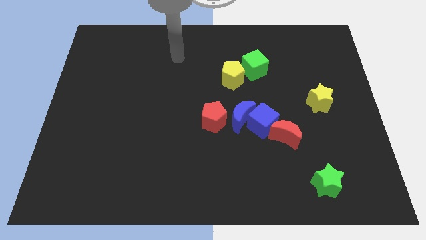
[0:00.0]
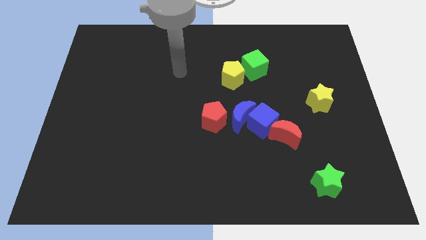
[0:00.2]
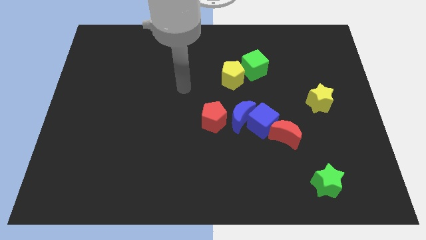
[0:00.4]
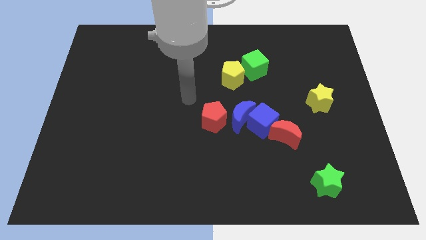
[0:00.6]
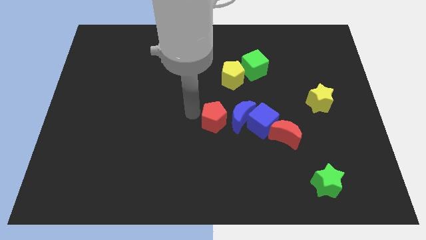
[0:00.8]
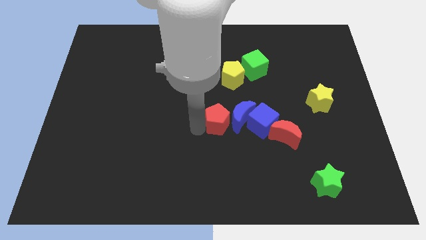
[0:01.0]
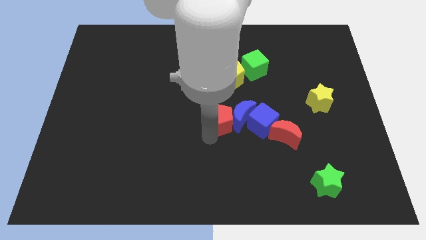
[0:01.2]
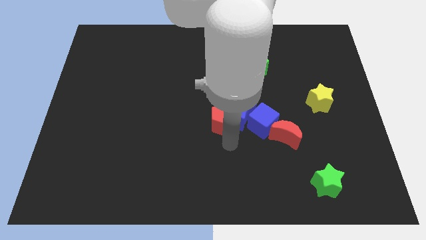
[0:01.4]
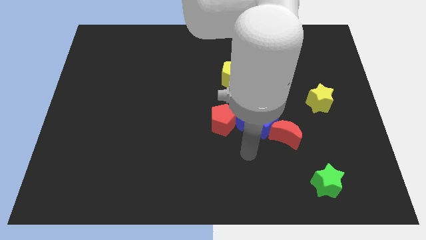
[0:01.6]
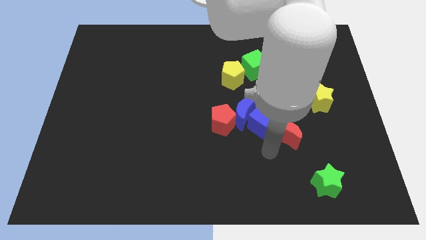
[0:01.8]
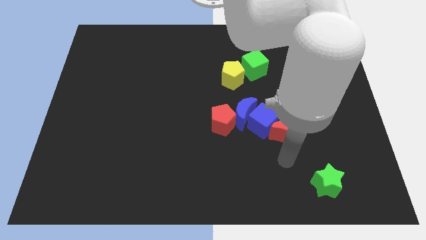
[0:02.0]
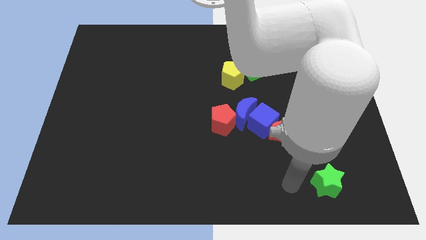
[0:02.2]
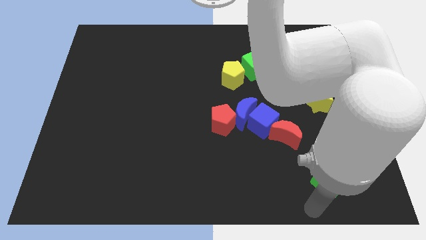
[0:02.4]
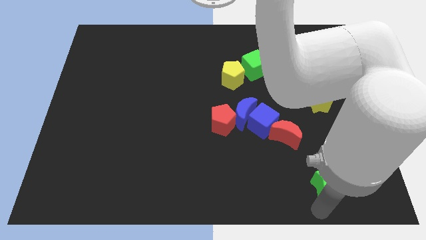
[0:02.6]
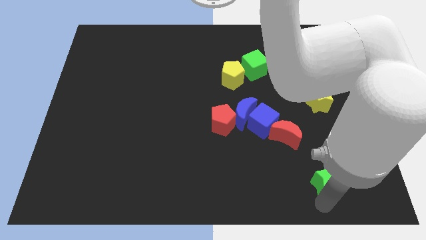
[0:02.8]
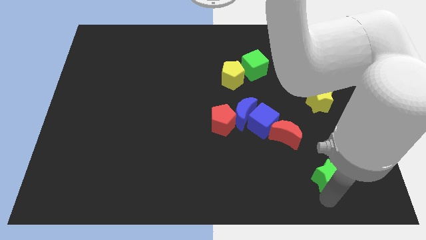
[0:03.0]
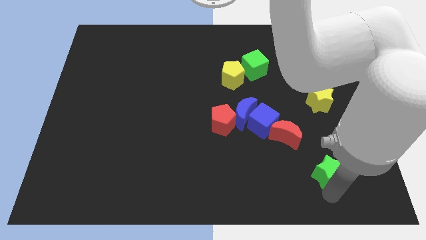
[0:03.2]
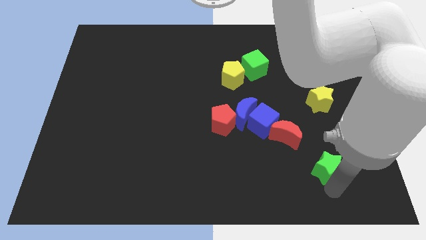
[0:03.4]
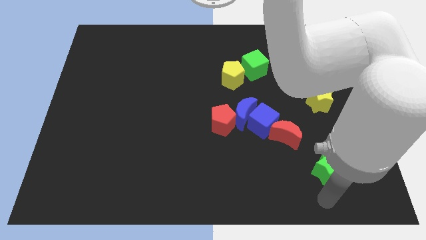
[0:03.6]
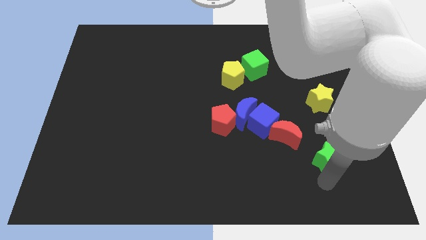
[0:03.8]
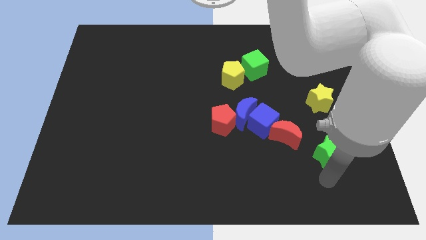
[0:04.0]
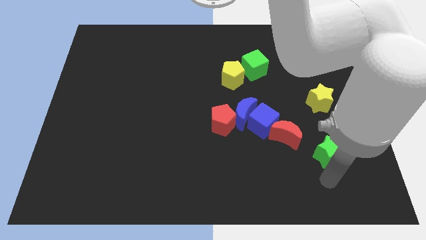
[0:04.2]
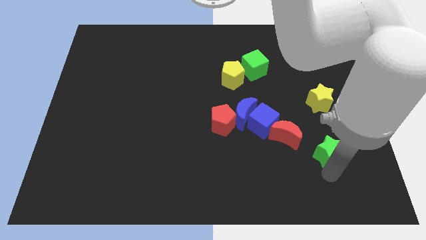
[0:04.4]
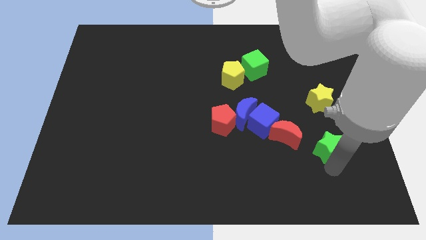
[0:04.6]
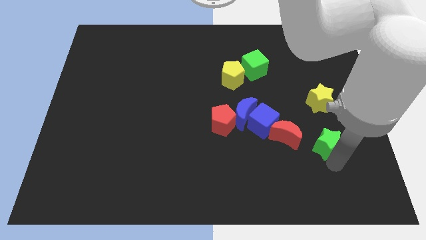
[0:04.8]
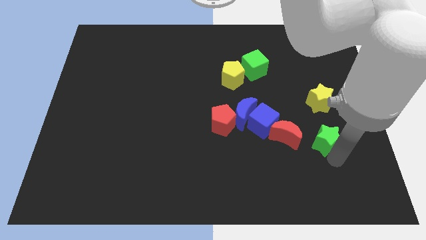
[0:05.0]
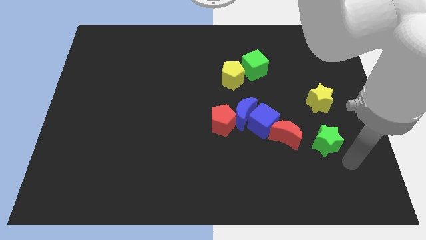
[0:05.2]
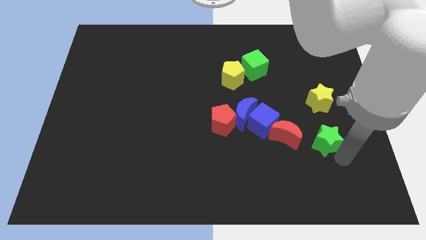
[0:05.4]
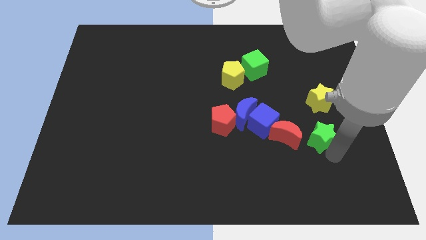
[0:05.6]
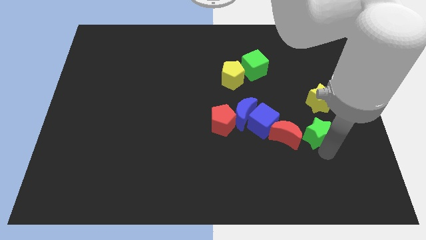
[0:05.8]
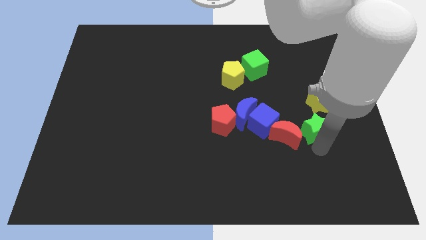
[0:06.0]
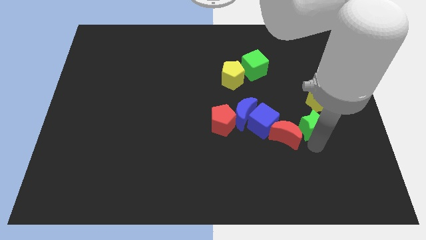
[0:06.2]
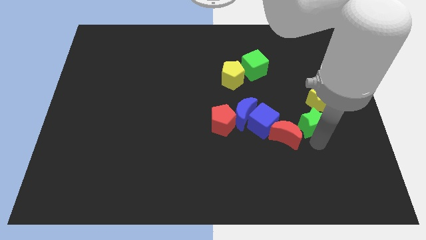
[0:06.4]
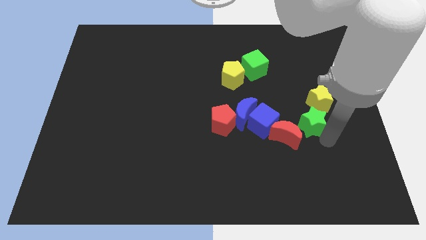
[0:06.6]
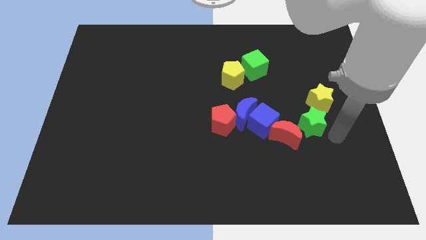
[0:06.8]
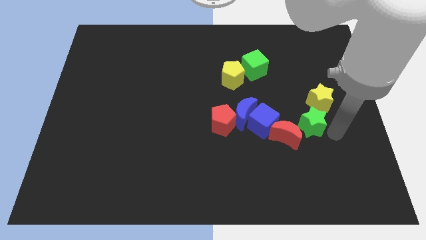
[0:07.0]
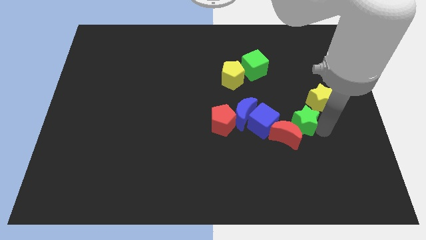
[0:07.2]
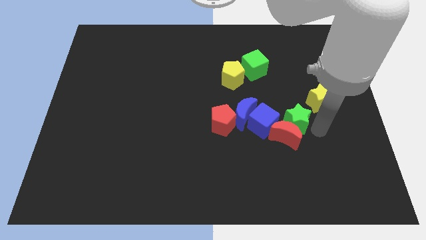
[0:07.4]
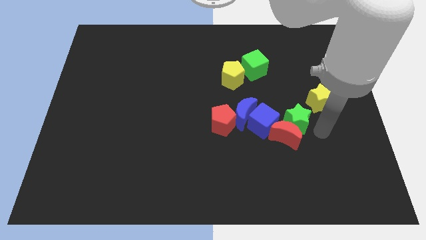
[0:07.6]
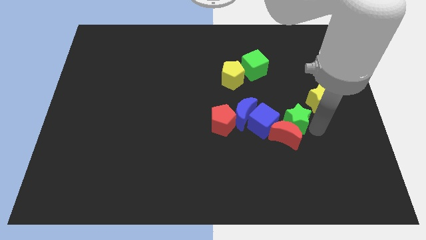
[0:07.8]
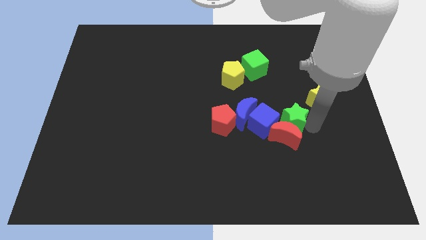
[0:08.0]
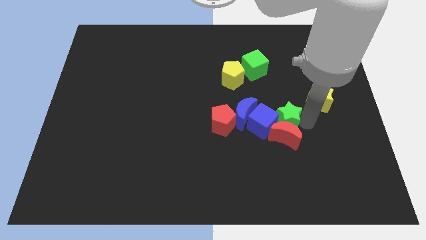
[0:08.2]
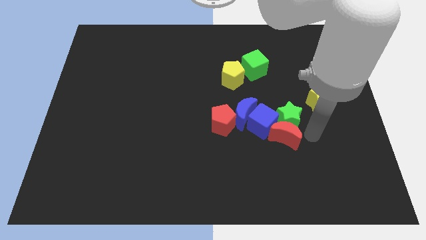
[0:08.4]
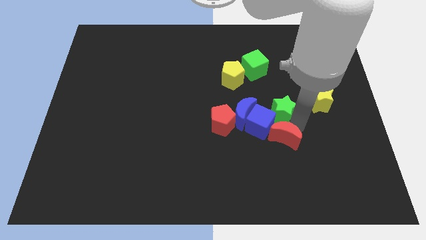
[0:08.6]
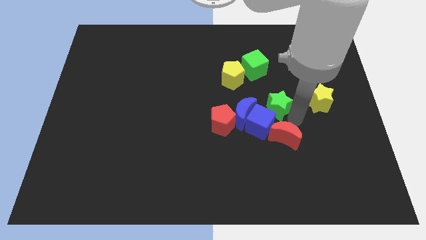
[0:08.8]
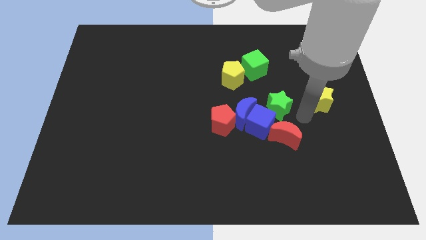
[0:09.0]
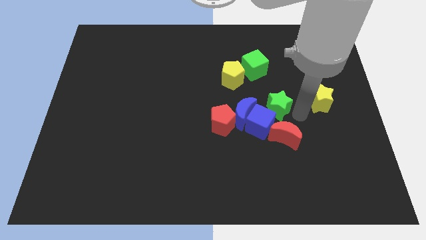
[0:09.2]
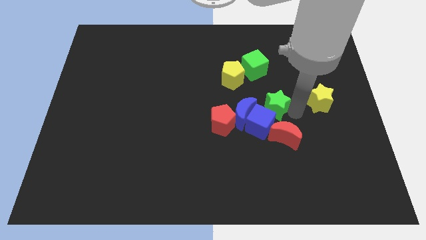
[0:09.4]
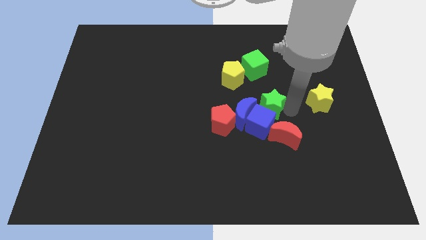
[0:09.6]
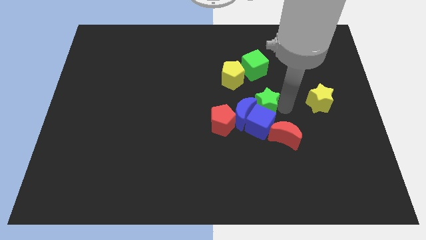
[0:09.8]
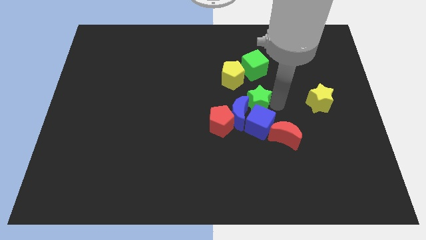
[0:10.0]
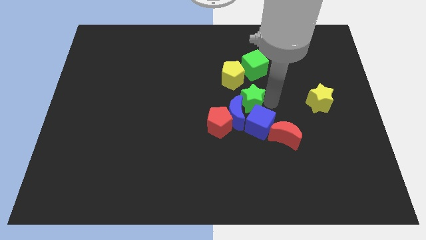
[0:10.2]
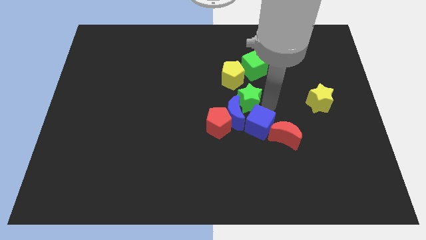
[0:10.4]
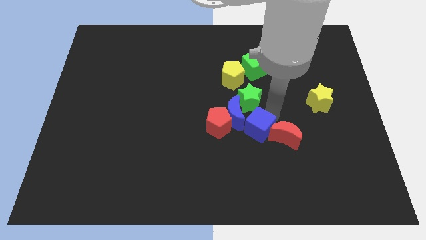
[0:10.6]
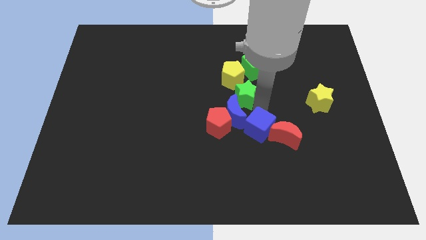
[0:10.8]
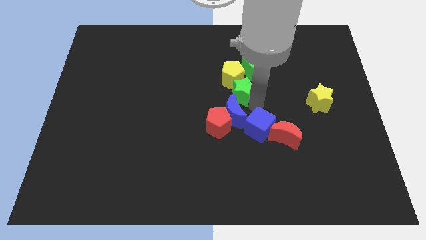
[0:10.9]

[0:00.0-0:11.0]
put the green star to the bottom left of the green cube

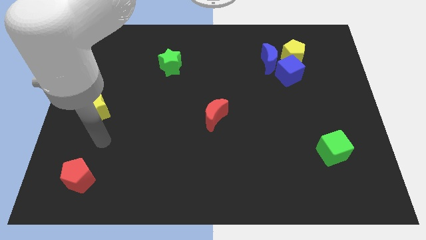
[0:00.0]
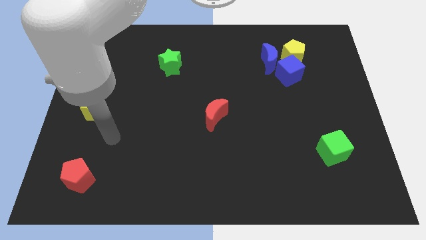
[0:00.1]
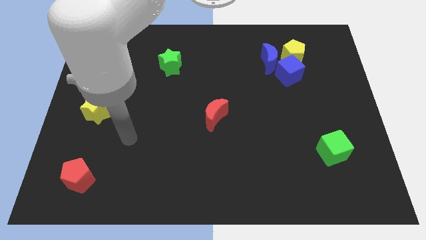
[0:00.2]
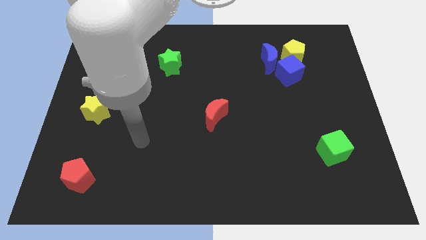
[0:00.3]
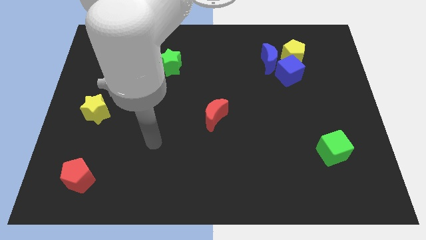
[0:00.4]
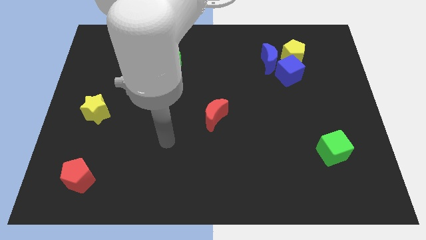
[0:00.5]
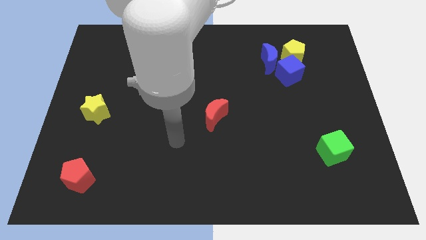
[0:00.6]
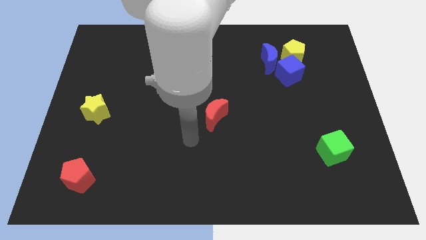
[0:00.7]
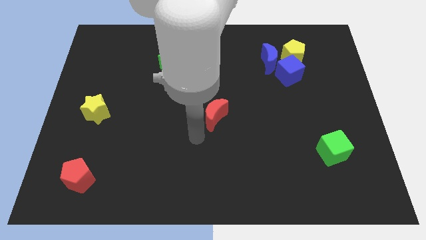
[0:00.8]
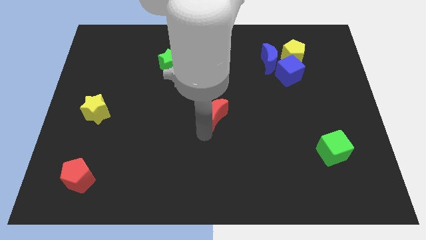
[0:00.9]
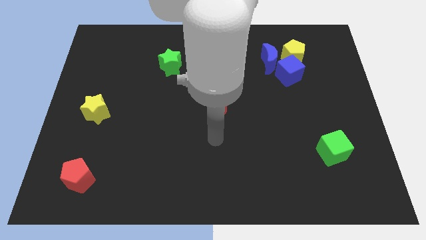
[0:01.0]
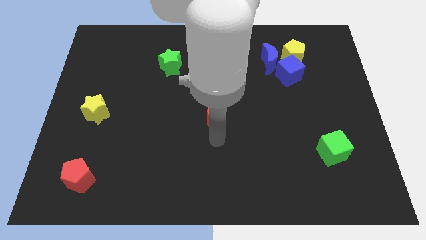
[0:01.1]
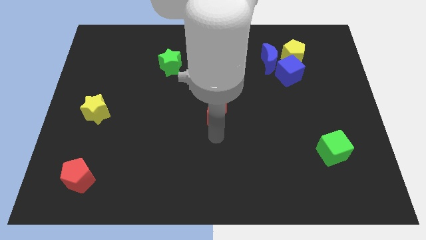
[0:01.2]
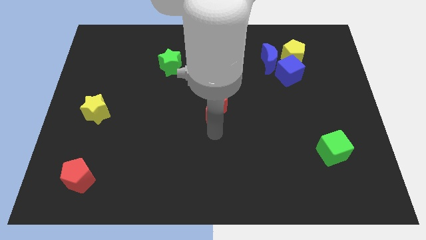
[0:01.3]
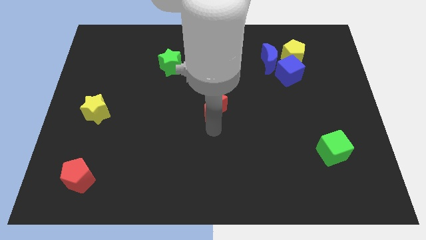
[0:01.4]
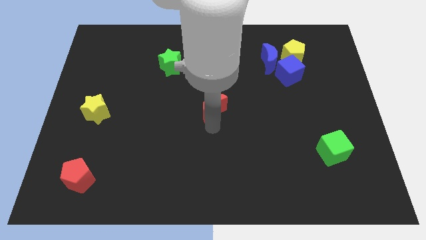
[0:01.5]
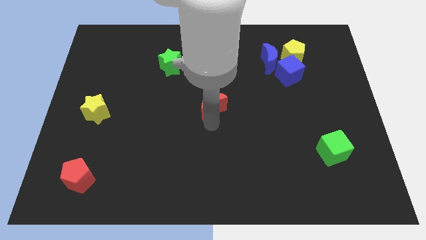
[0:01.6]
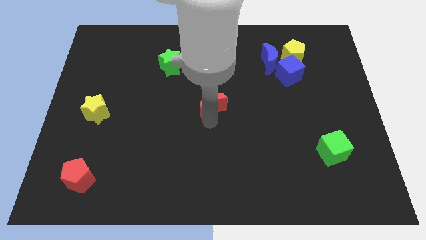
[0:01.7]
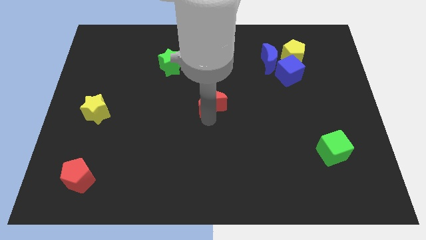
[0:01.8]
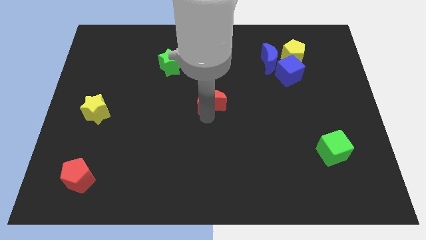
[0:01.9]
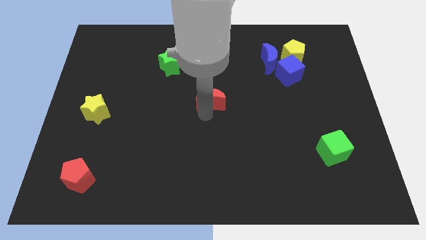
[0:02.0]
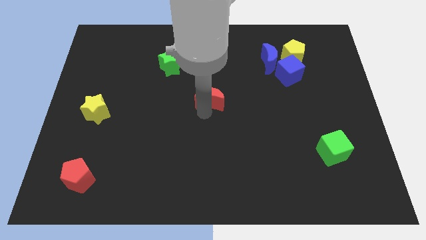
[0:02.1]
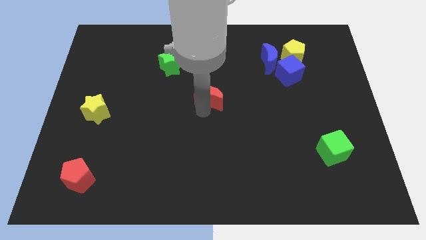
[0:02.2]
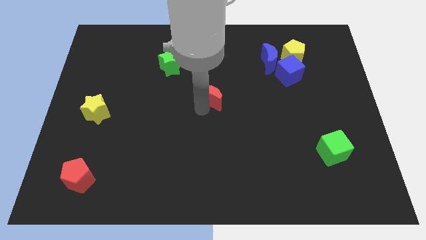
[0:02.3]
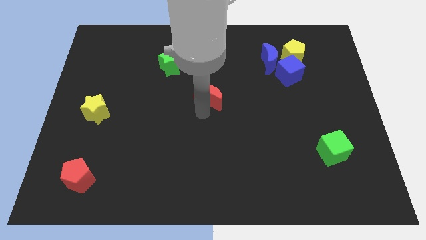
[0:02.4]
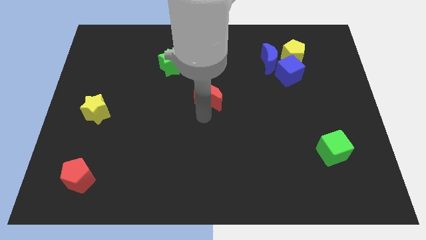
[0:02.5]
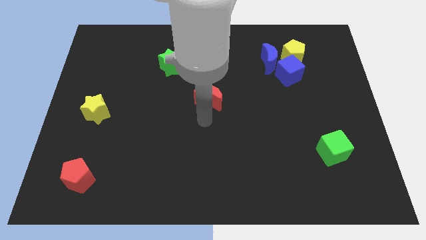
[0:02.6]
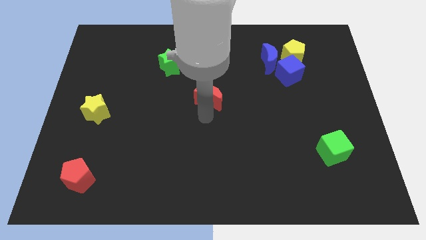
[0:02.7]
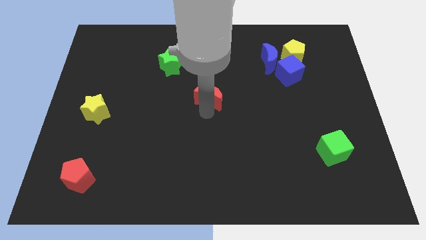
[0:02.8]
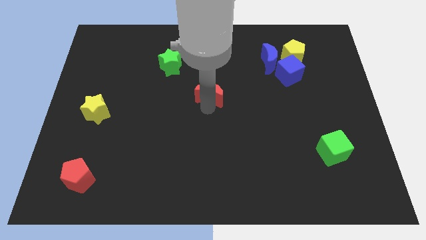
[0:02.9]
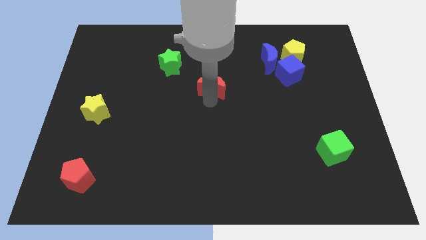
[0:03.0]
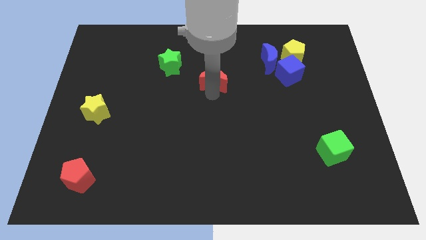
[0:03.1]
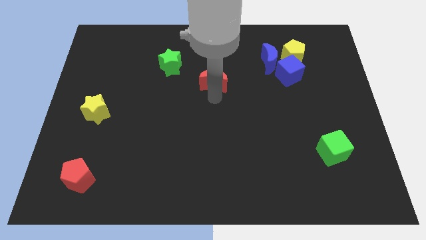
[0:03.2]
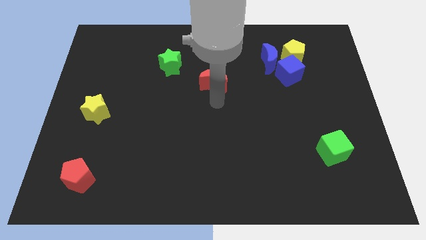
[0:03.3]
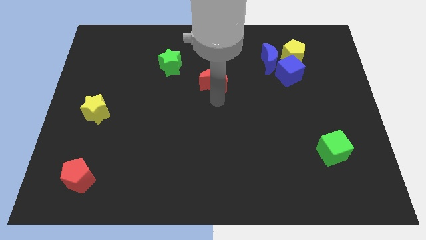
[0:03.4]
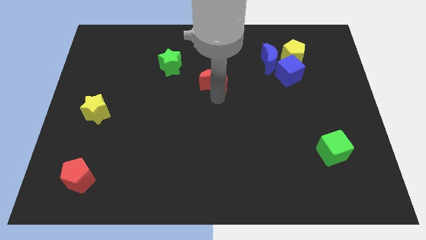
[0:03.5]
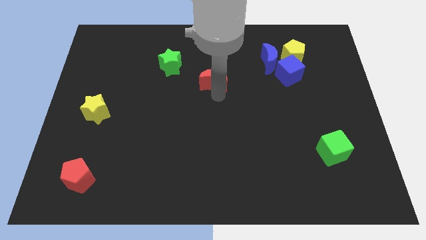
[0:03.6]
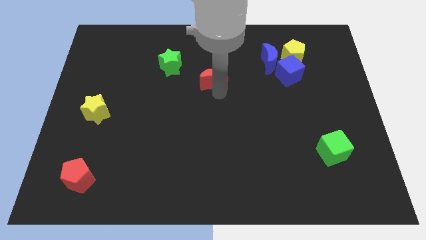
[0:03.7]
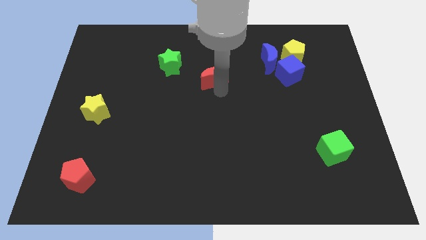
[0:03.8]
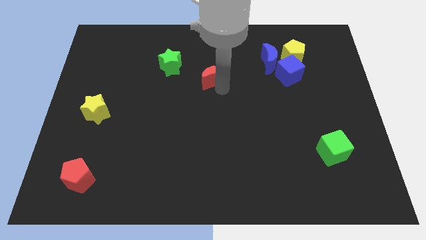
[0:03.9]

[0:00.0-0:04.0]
put the red moon just right of the green star
